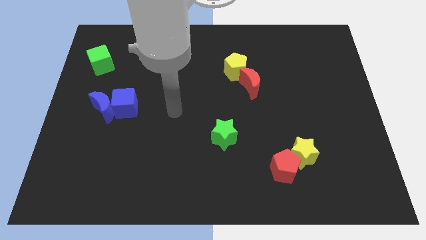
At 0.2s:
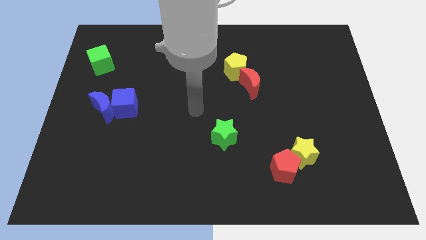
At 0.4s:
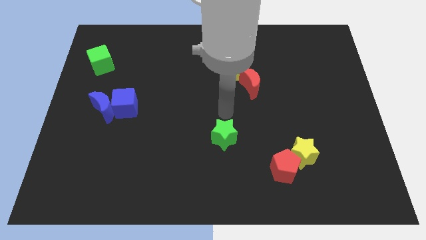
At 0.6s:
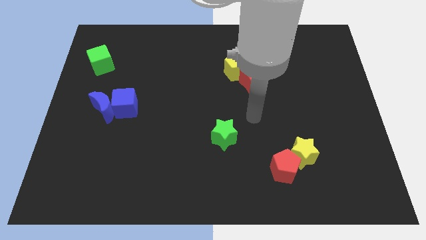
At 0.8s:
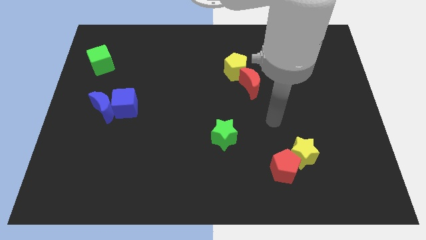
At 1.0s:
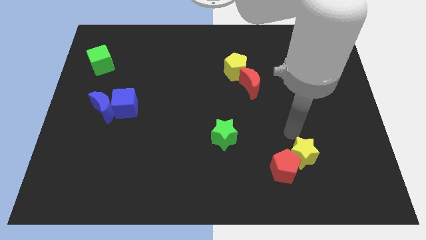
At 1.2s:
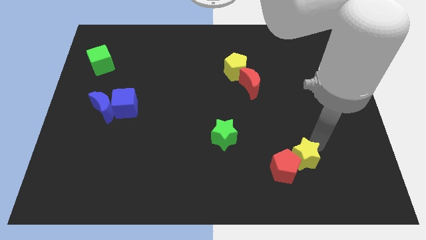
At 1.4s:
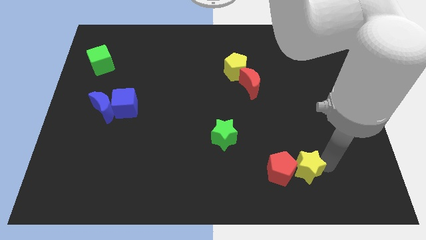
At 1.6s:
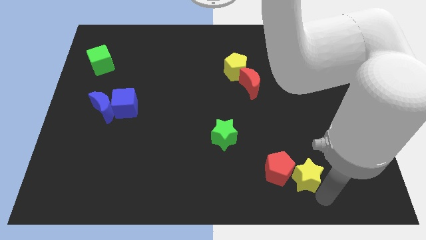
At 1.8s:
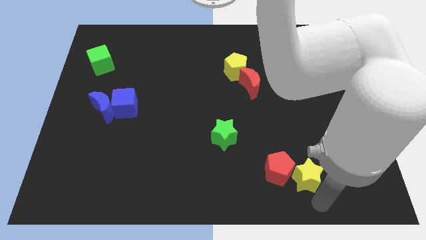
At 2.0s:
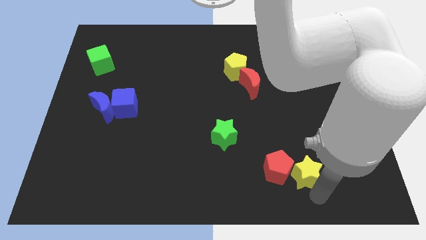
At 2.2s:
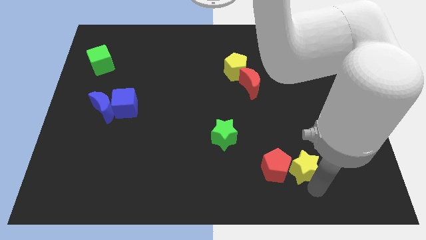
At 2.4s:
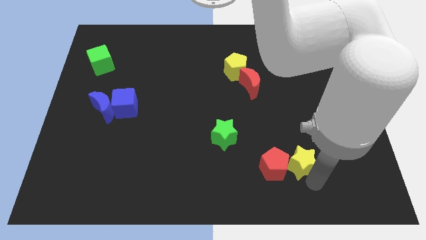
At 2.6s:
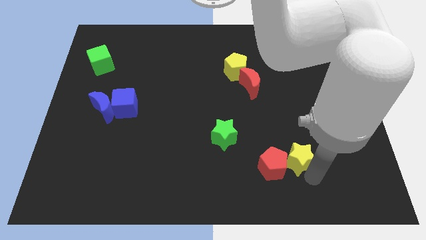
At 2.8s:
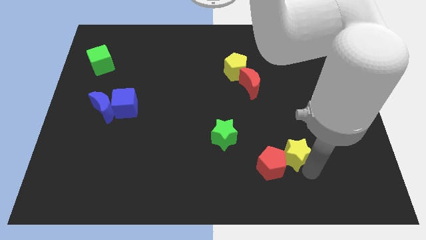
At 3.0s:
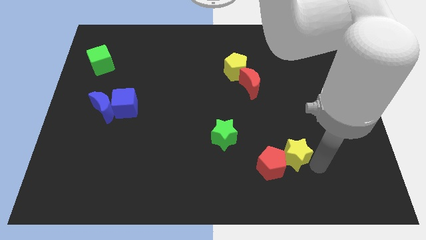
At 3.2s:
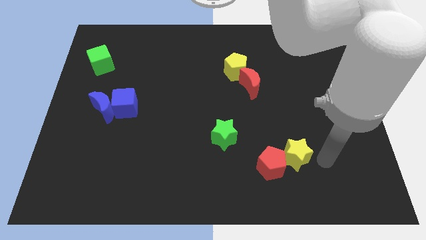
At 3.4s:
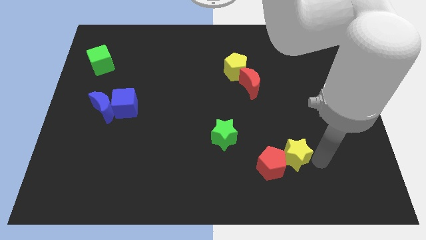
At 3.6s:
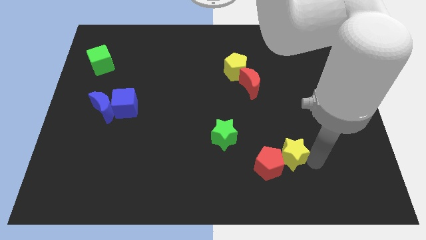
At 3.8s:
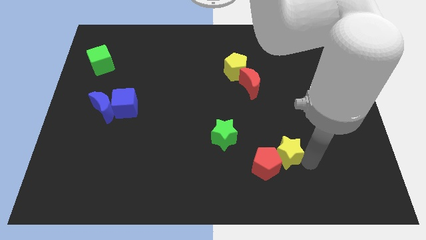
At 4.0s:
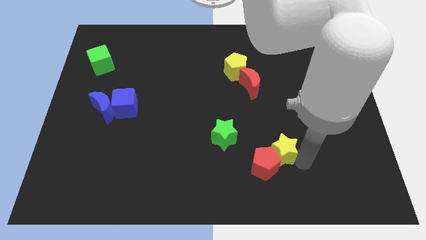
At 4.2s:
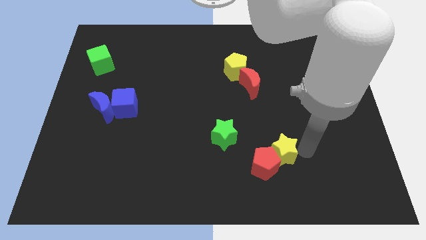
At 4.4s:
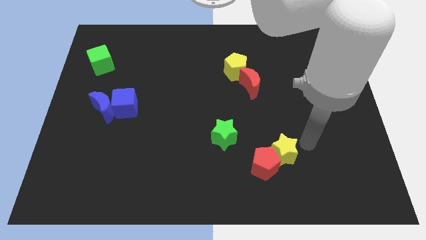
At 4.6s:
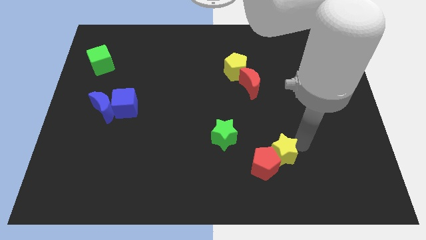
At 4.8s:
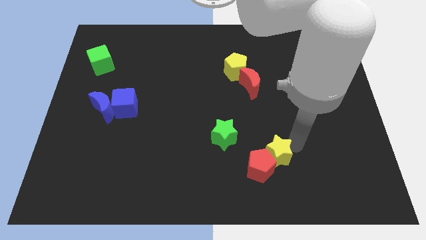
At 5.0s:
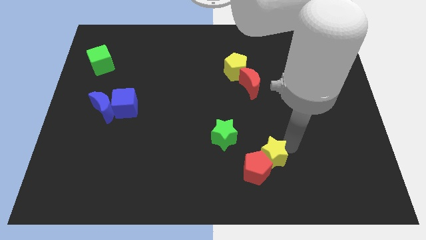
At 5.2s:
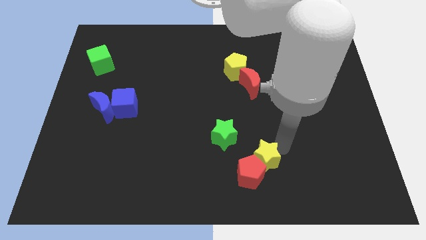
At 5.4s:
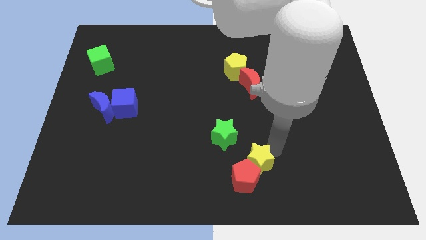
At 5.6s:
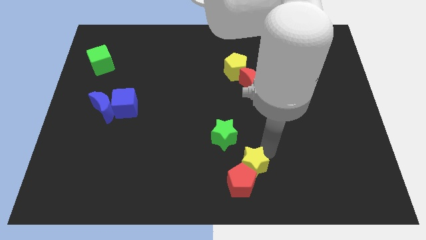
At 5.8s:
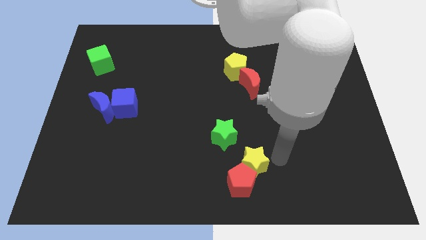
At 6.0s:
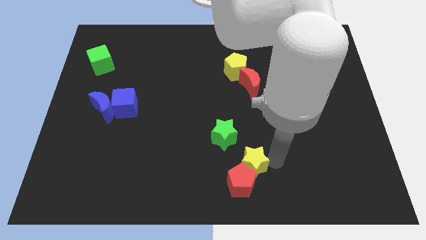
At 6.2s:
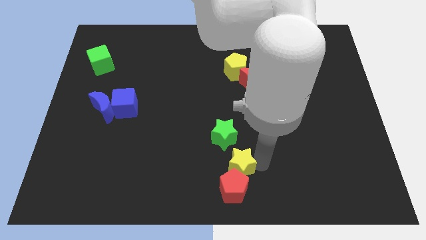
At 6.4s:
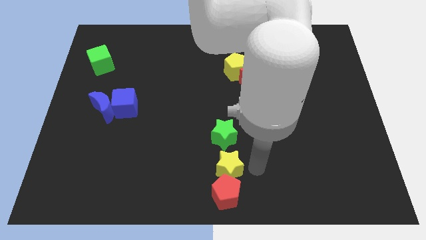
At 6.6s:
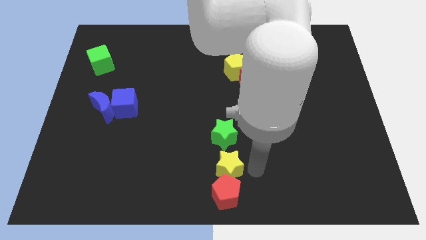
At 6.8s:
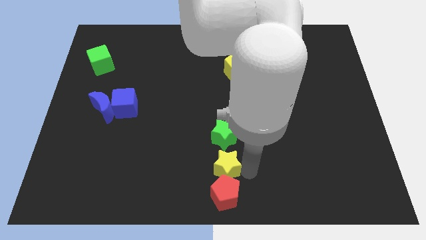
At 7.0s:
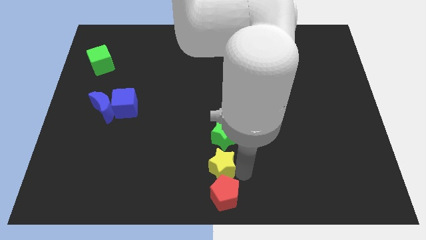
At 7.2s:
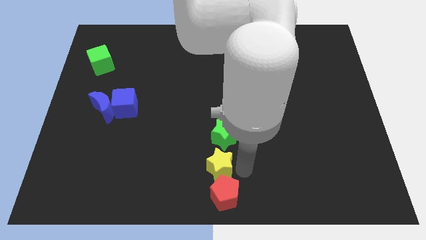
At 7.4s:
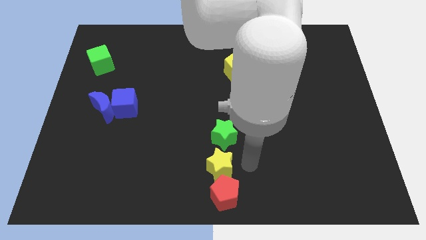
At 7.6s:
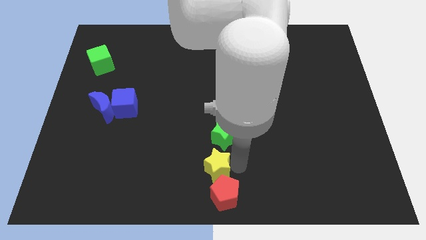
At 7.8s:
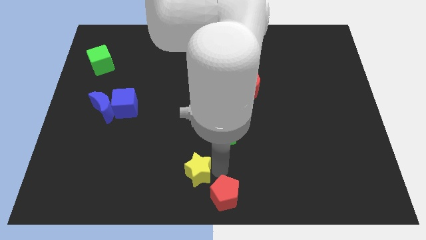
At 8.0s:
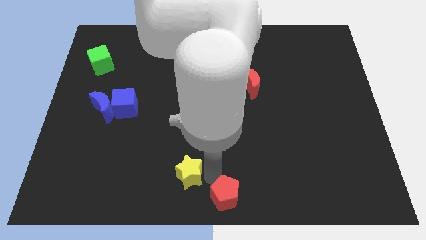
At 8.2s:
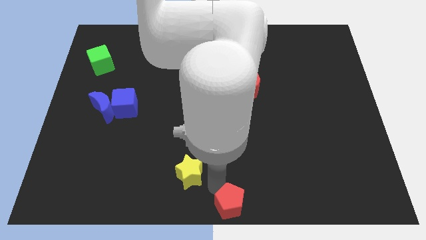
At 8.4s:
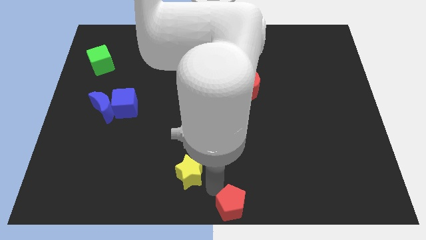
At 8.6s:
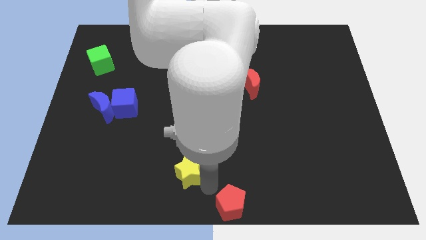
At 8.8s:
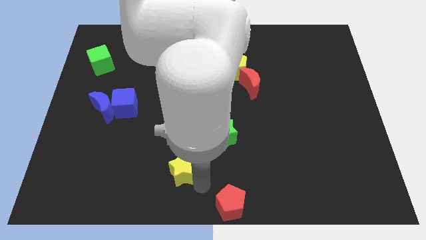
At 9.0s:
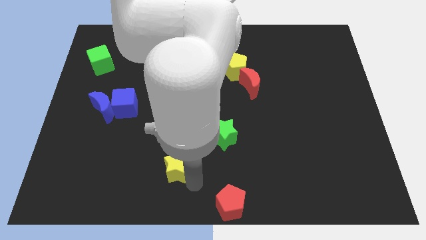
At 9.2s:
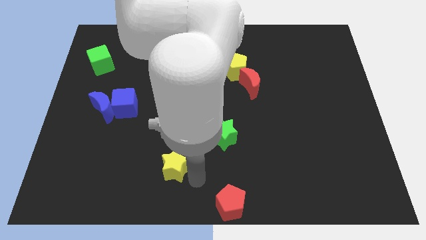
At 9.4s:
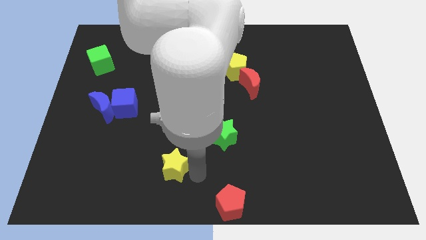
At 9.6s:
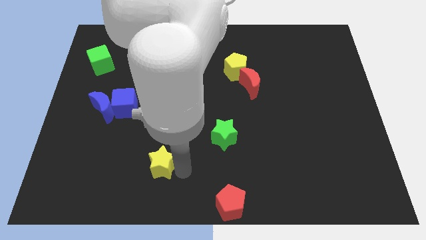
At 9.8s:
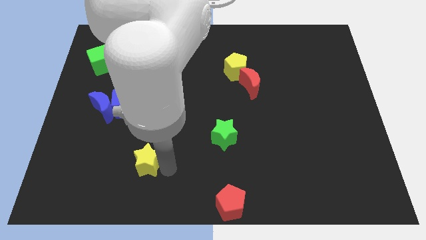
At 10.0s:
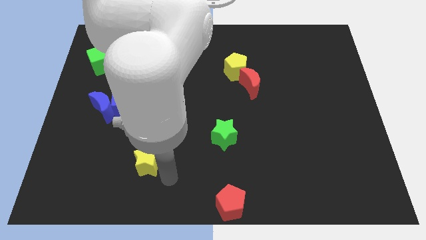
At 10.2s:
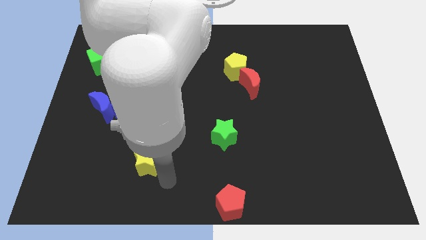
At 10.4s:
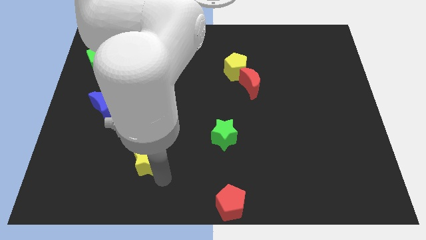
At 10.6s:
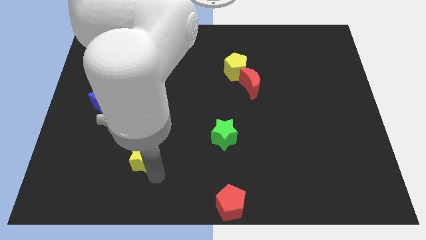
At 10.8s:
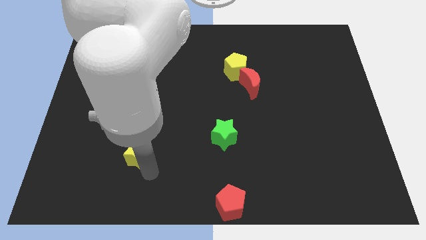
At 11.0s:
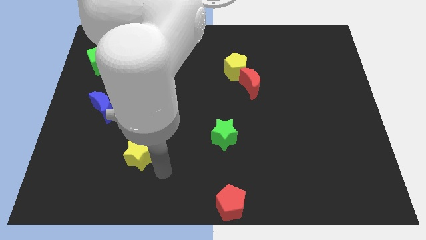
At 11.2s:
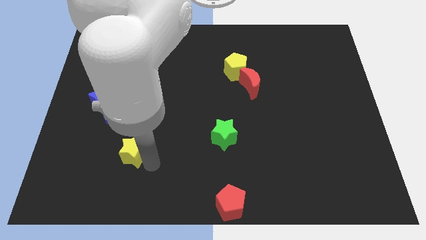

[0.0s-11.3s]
put the yellow star to the bottom side of the blue cube

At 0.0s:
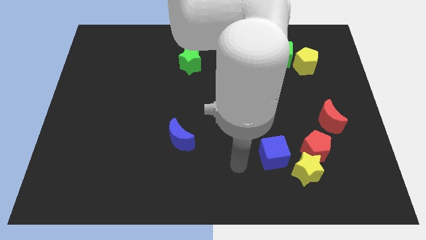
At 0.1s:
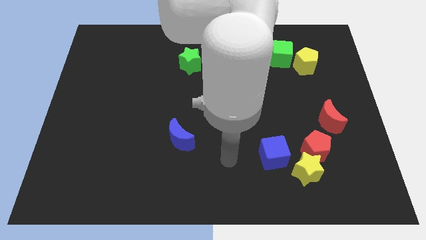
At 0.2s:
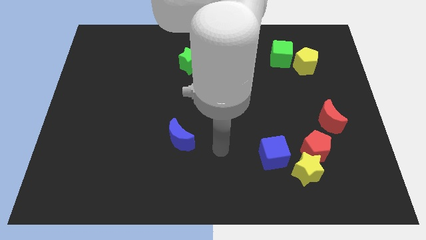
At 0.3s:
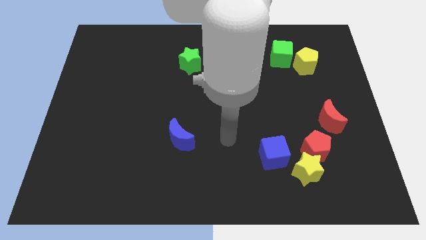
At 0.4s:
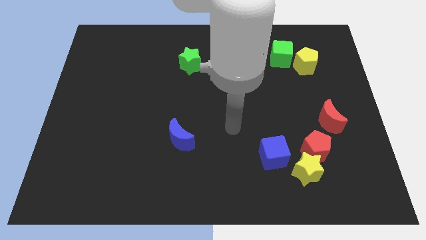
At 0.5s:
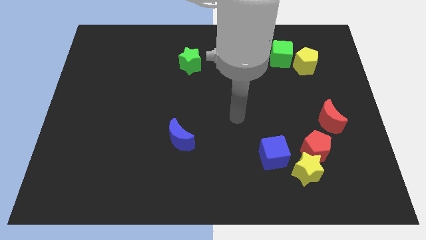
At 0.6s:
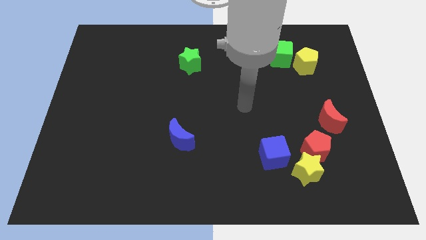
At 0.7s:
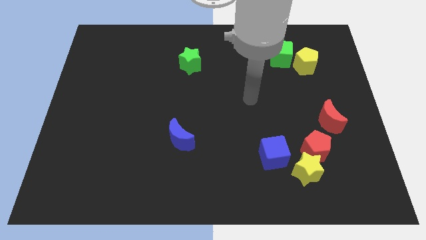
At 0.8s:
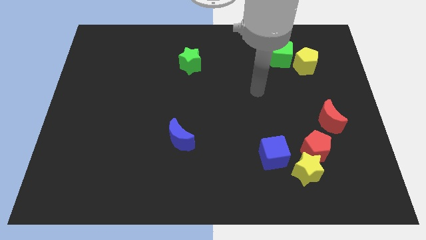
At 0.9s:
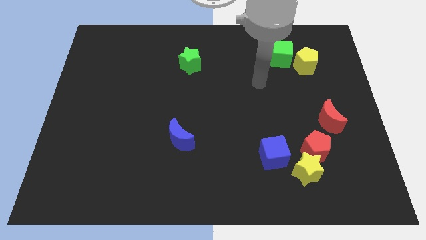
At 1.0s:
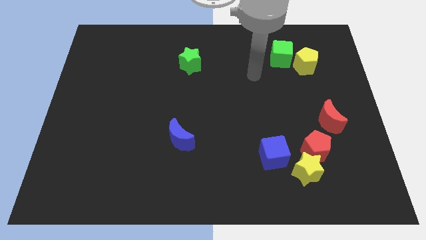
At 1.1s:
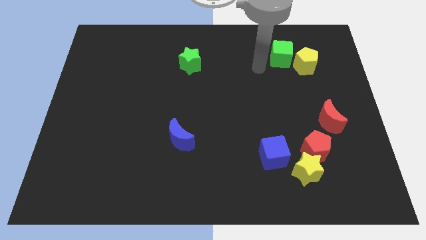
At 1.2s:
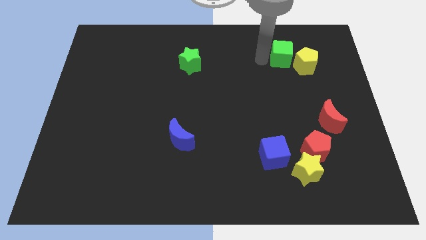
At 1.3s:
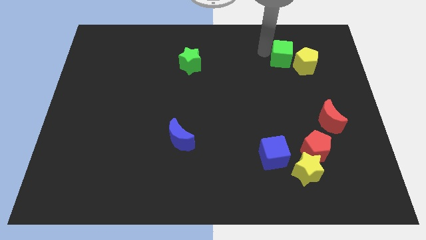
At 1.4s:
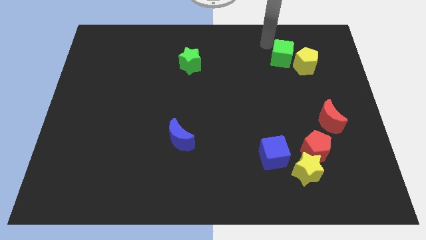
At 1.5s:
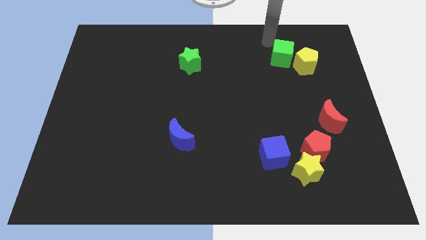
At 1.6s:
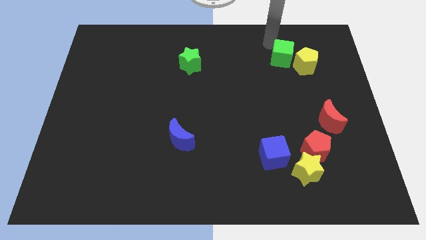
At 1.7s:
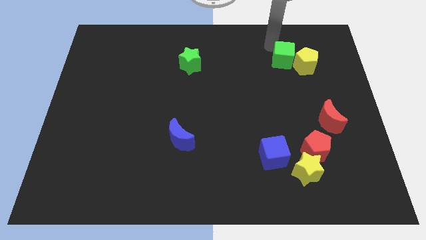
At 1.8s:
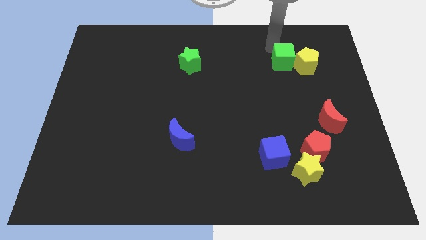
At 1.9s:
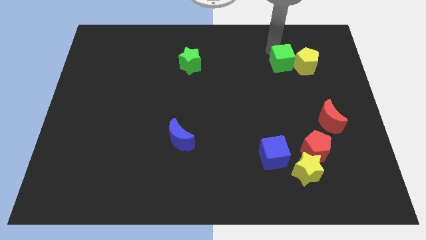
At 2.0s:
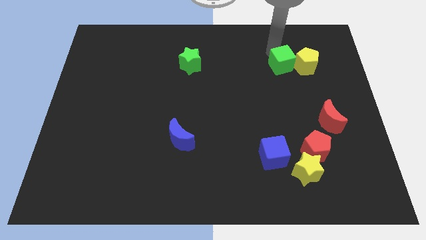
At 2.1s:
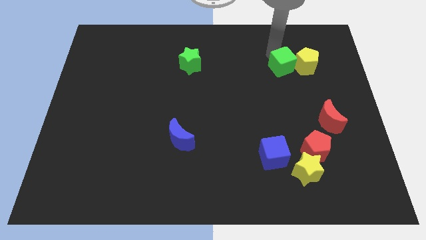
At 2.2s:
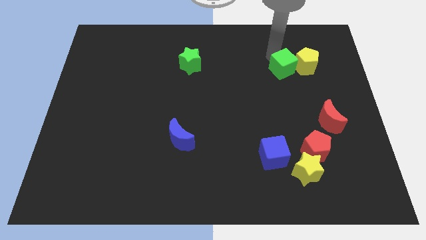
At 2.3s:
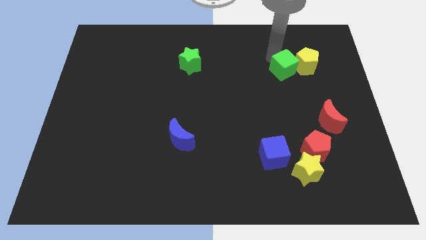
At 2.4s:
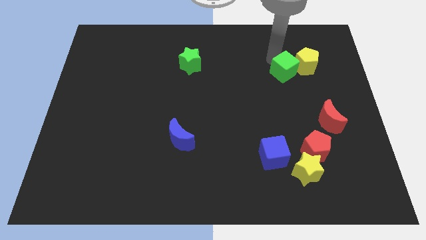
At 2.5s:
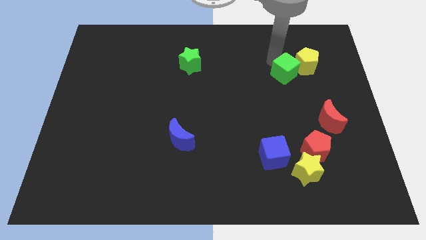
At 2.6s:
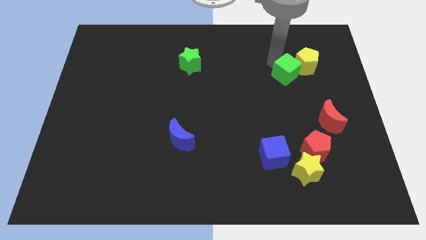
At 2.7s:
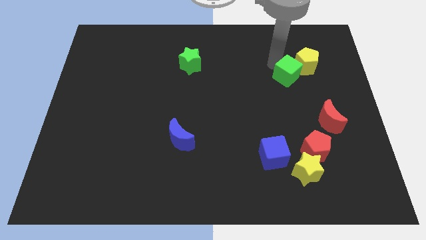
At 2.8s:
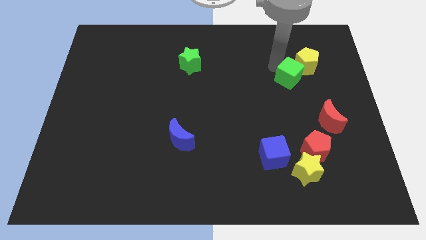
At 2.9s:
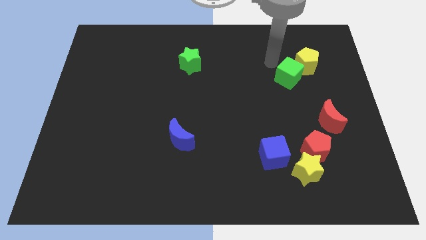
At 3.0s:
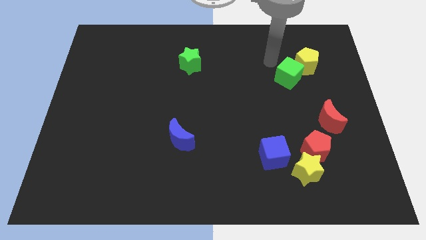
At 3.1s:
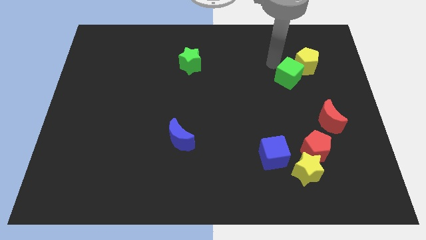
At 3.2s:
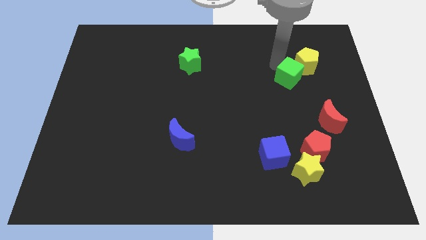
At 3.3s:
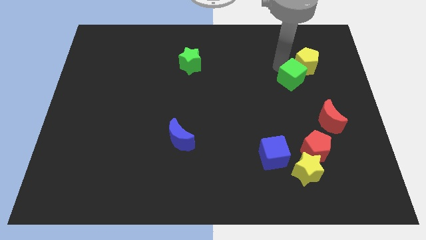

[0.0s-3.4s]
slide the green cube to the bottom of the yellow pentagon
